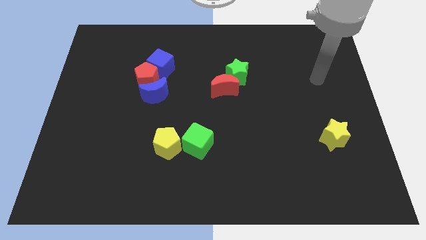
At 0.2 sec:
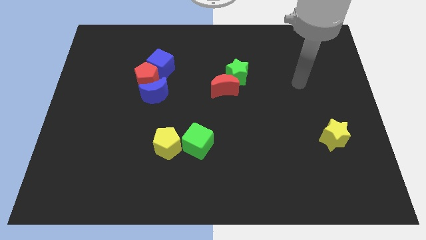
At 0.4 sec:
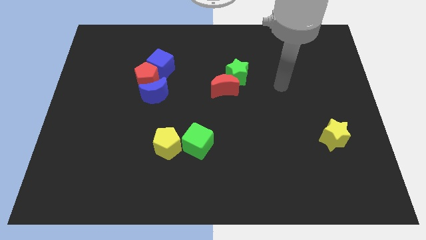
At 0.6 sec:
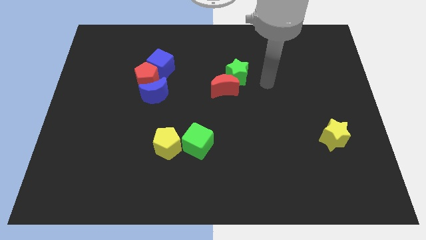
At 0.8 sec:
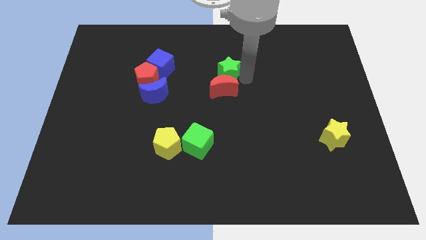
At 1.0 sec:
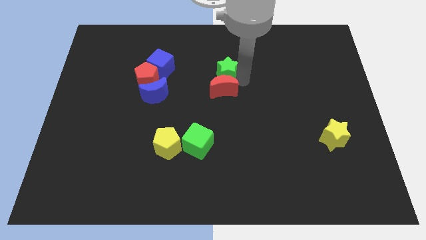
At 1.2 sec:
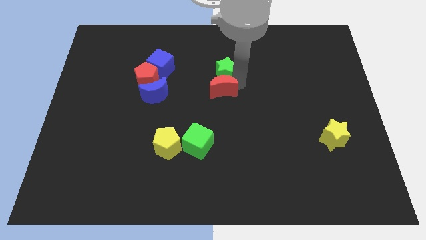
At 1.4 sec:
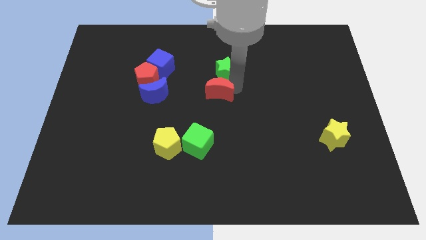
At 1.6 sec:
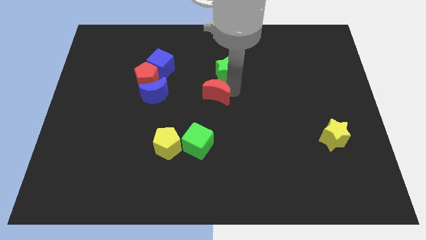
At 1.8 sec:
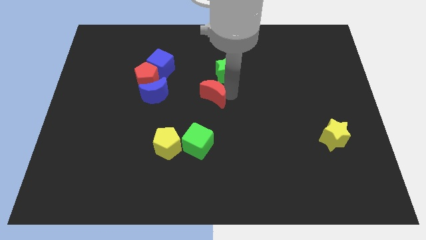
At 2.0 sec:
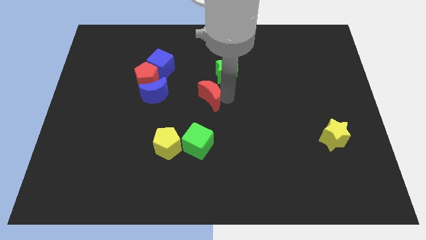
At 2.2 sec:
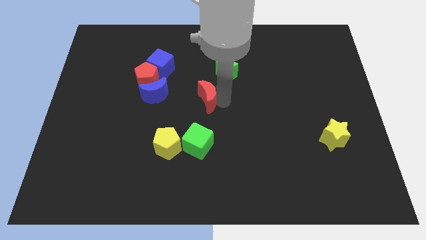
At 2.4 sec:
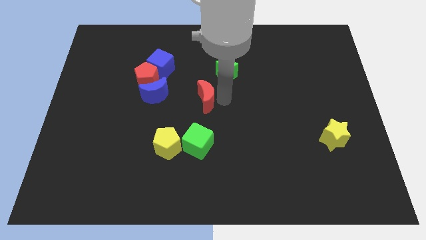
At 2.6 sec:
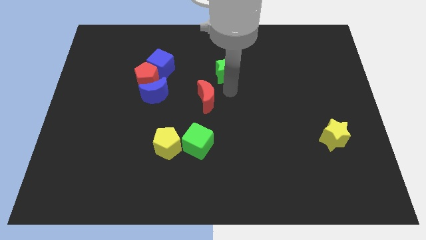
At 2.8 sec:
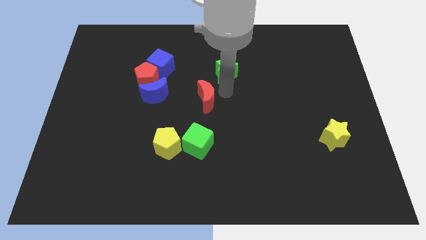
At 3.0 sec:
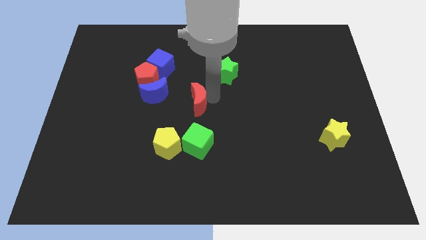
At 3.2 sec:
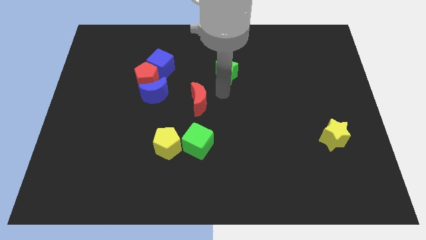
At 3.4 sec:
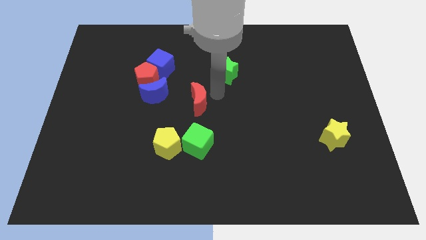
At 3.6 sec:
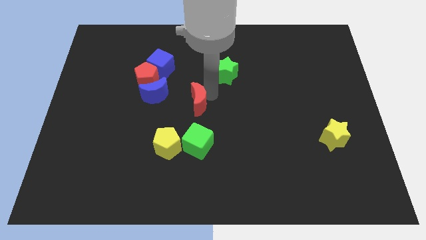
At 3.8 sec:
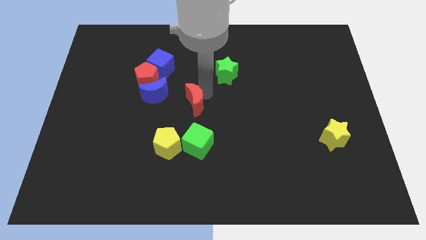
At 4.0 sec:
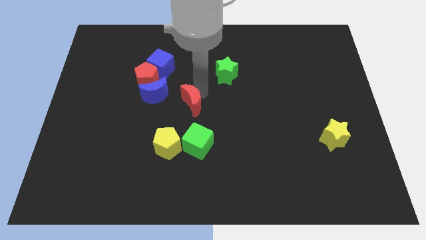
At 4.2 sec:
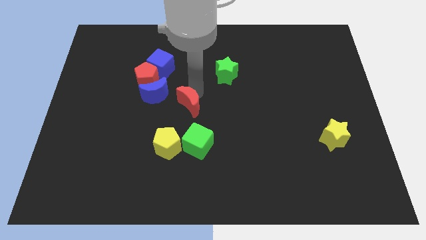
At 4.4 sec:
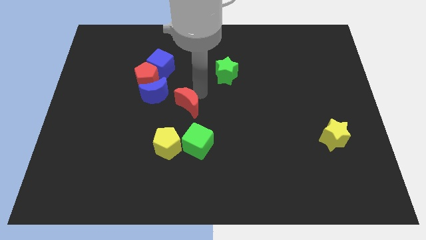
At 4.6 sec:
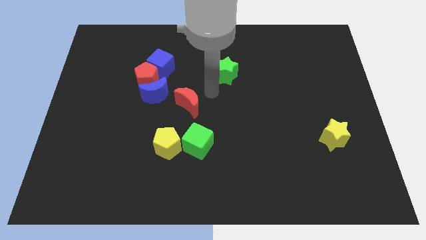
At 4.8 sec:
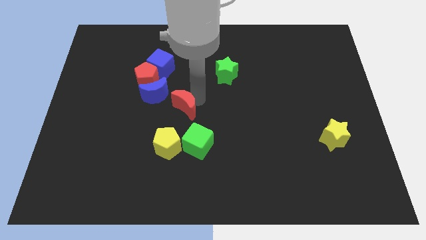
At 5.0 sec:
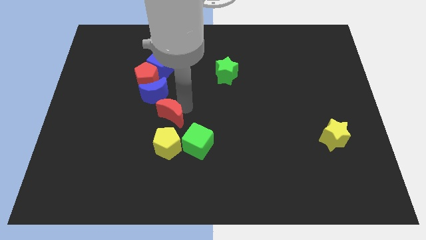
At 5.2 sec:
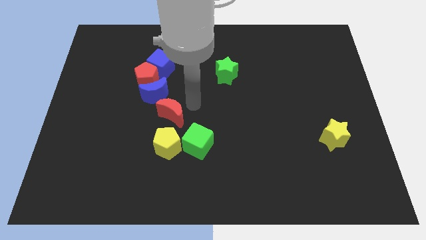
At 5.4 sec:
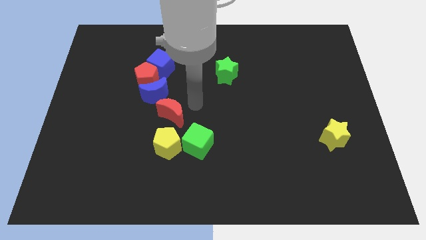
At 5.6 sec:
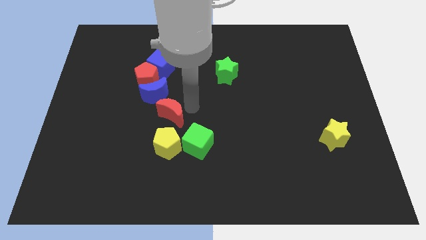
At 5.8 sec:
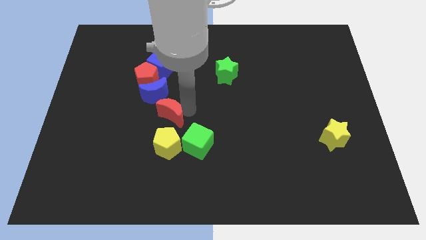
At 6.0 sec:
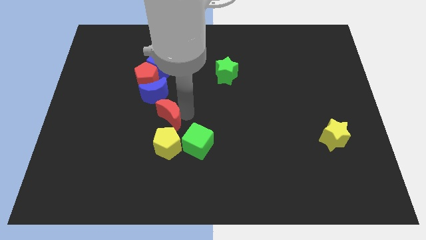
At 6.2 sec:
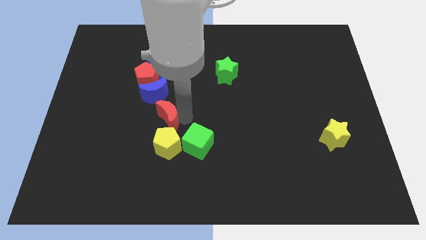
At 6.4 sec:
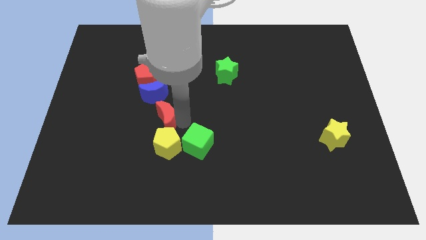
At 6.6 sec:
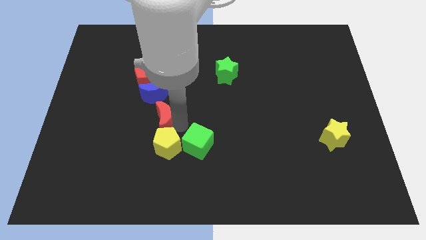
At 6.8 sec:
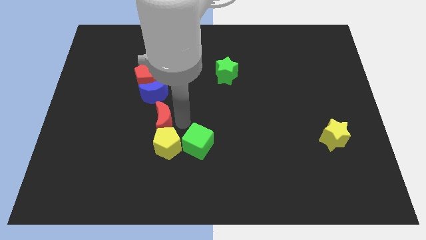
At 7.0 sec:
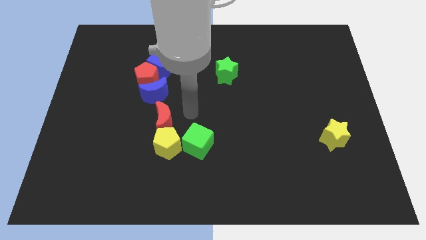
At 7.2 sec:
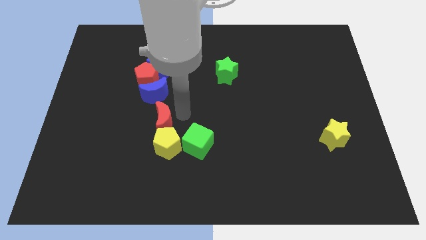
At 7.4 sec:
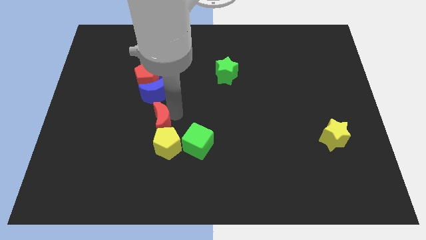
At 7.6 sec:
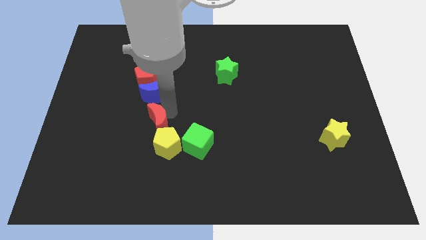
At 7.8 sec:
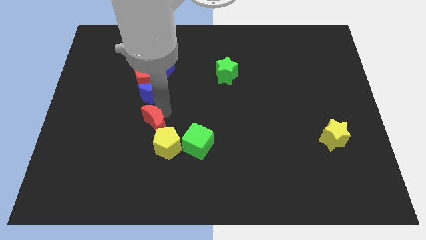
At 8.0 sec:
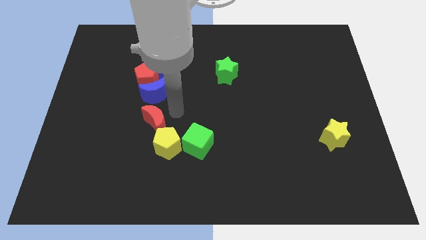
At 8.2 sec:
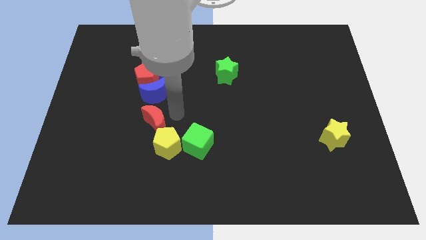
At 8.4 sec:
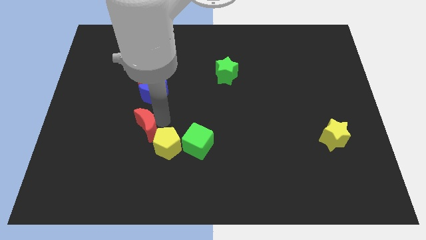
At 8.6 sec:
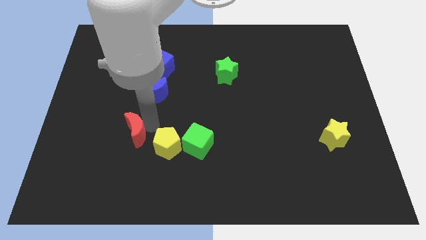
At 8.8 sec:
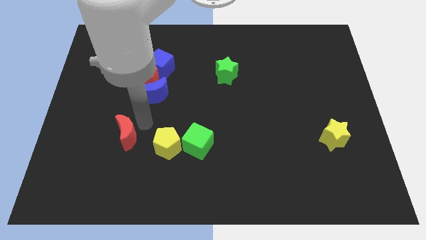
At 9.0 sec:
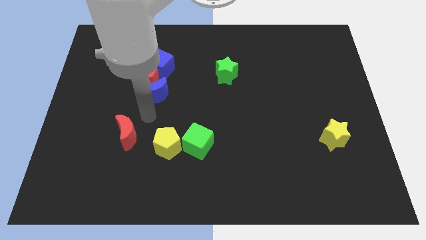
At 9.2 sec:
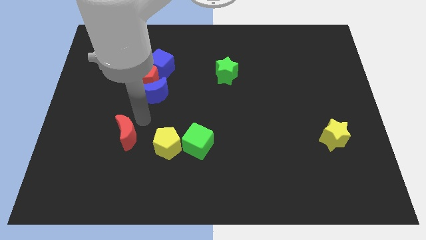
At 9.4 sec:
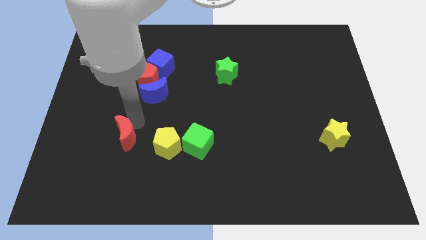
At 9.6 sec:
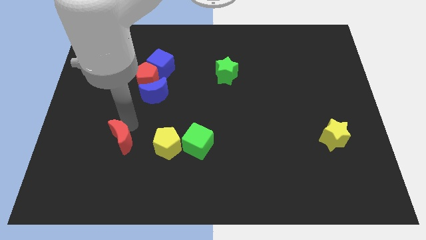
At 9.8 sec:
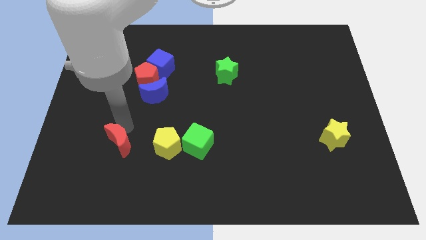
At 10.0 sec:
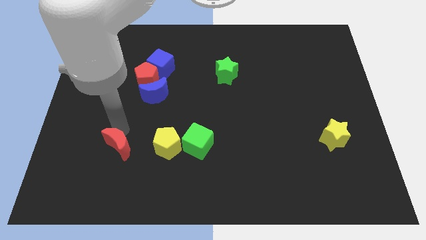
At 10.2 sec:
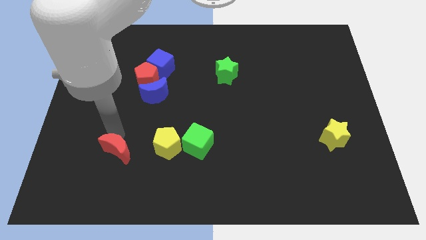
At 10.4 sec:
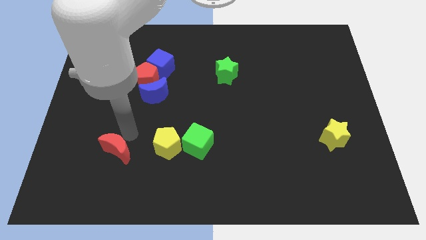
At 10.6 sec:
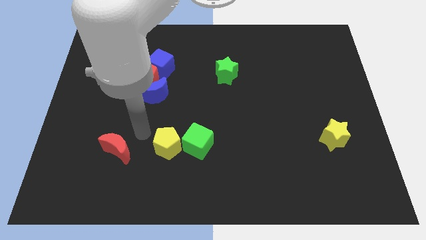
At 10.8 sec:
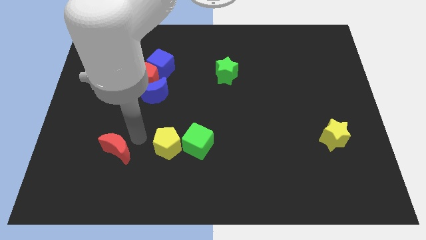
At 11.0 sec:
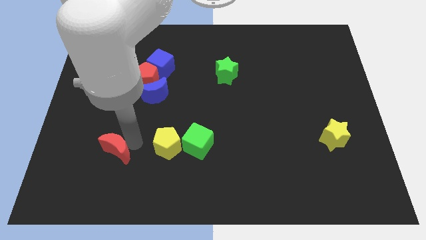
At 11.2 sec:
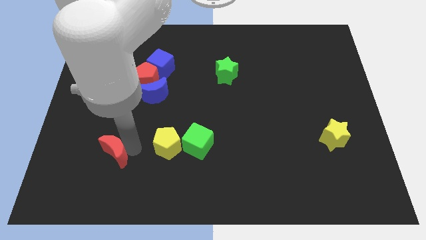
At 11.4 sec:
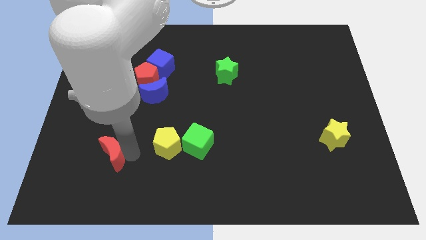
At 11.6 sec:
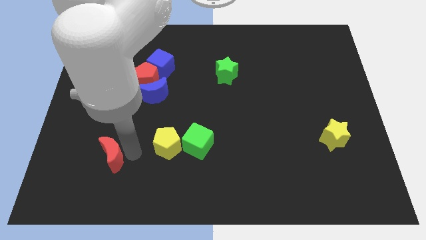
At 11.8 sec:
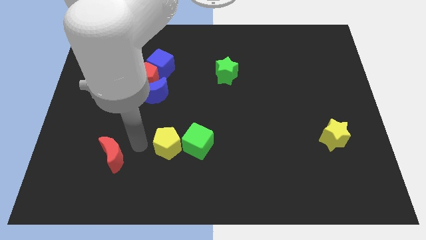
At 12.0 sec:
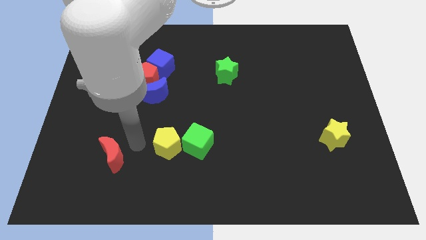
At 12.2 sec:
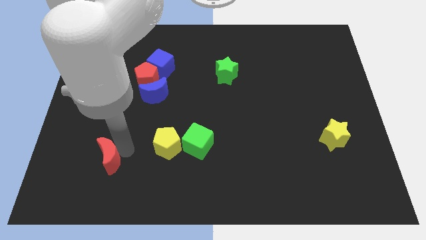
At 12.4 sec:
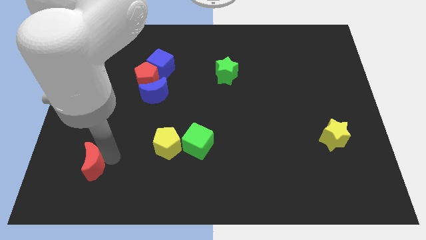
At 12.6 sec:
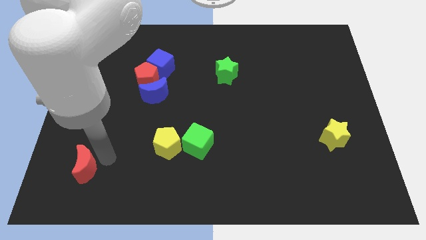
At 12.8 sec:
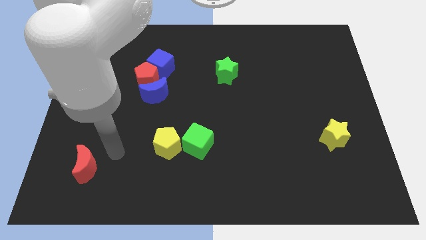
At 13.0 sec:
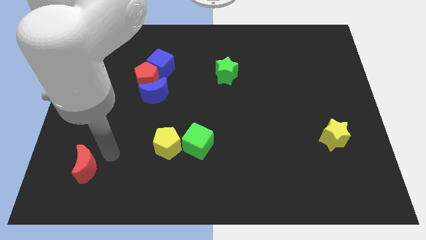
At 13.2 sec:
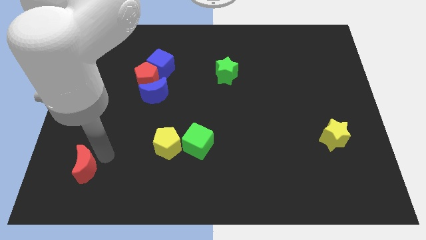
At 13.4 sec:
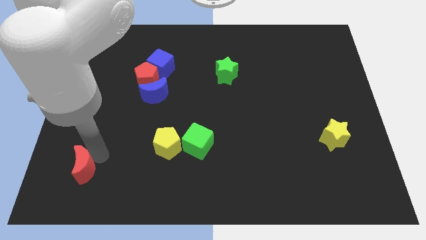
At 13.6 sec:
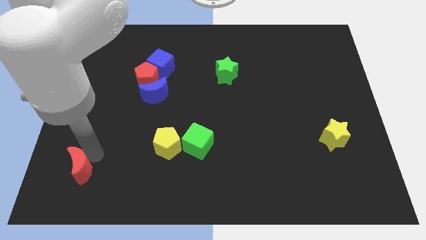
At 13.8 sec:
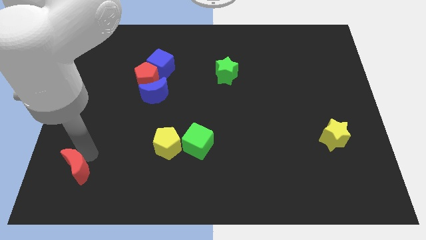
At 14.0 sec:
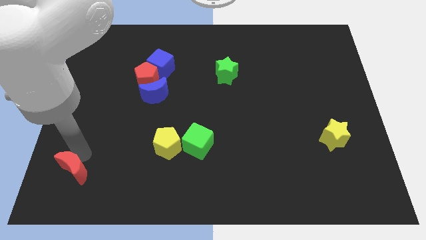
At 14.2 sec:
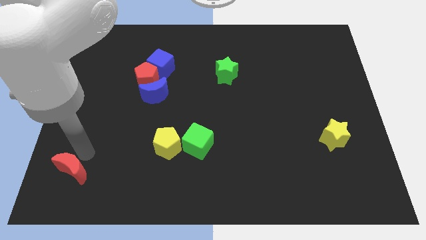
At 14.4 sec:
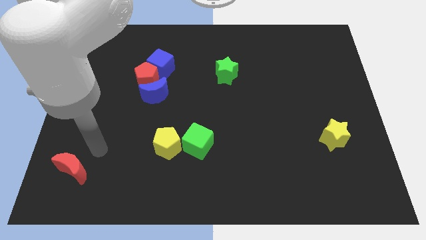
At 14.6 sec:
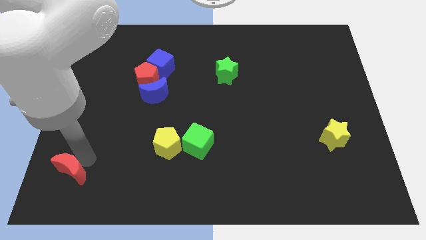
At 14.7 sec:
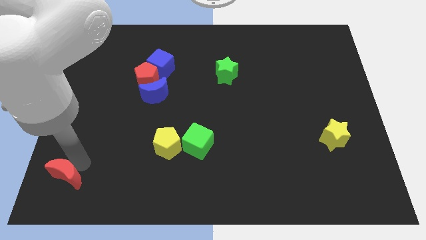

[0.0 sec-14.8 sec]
put the red moon to the lower left corner
